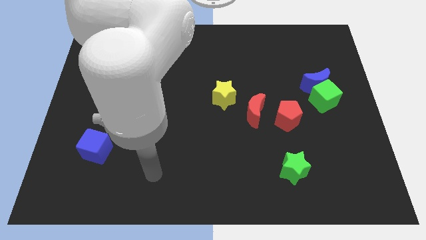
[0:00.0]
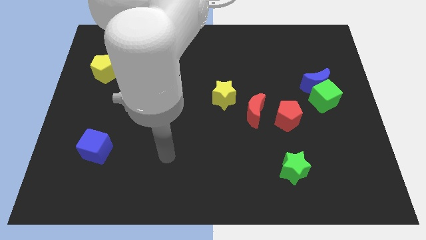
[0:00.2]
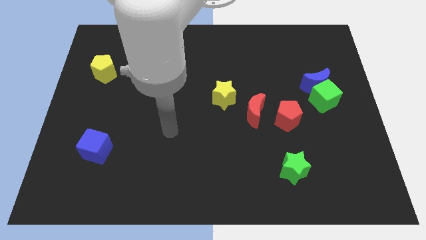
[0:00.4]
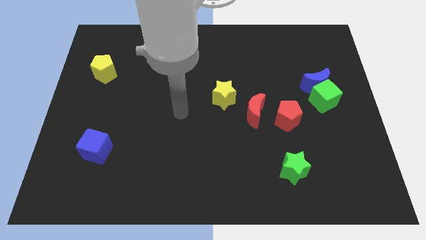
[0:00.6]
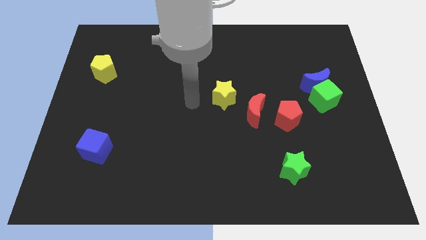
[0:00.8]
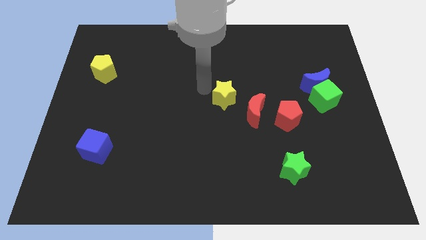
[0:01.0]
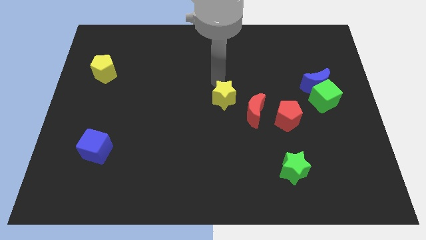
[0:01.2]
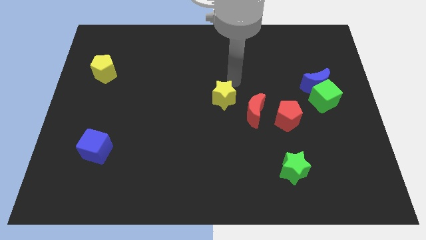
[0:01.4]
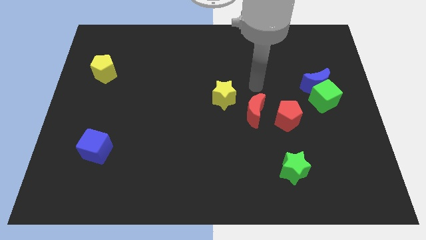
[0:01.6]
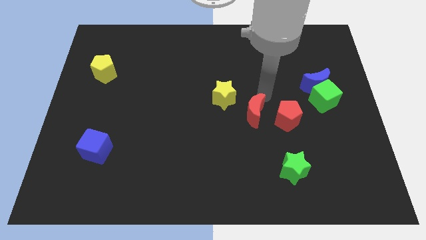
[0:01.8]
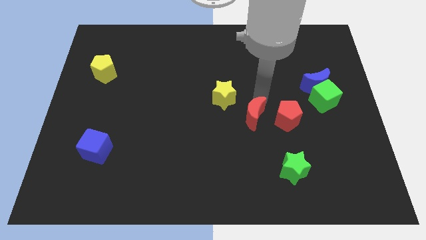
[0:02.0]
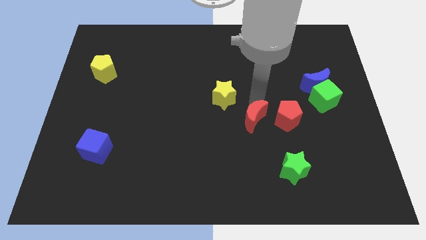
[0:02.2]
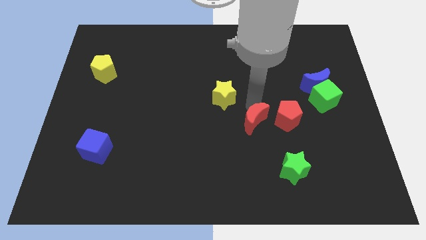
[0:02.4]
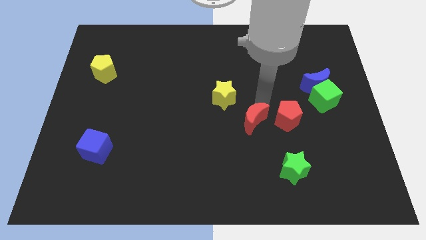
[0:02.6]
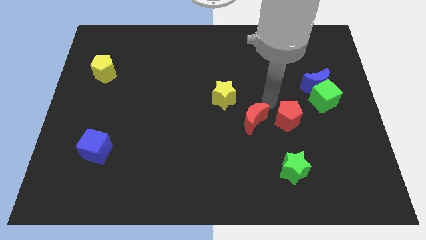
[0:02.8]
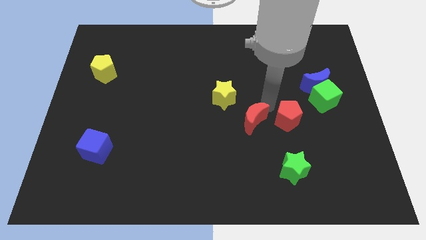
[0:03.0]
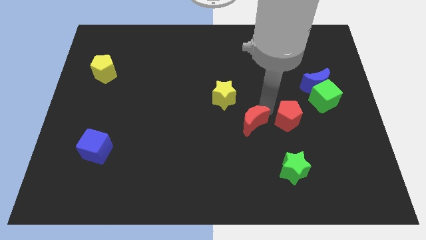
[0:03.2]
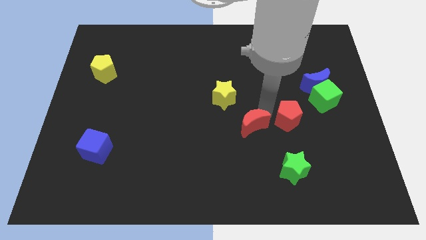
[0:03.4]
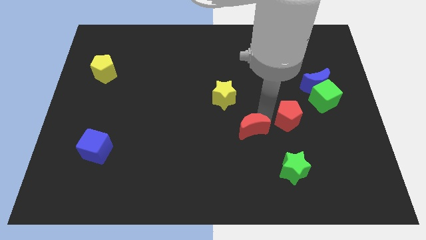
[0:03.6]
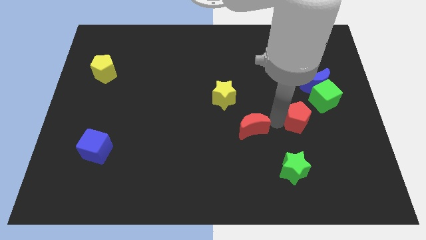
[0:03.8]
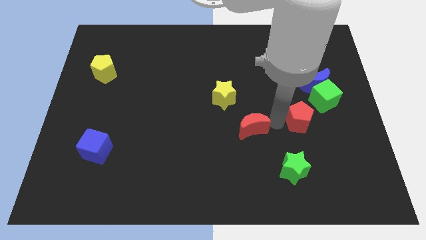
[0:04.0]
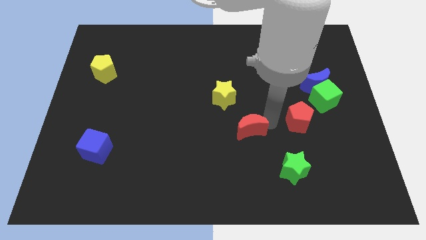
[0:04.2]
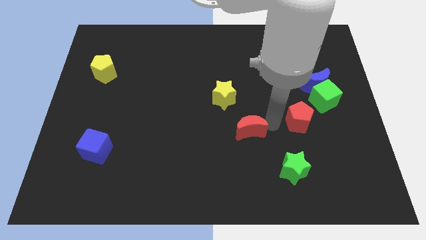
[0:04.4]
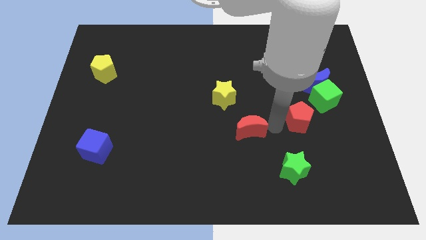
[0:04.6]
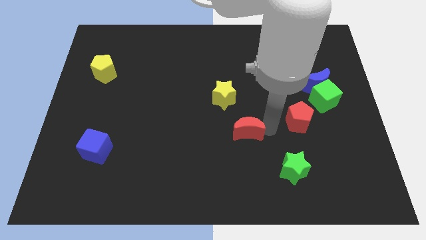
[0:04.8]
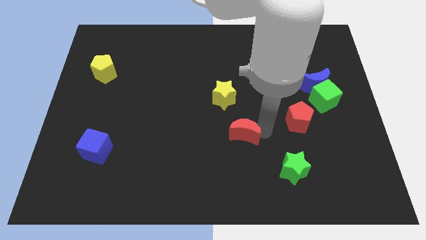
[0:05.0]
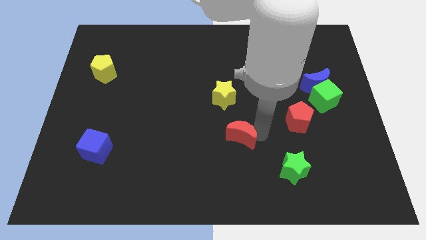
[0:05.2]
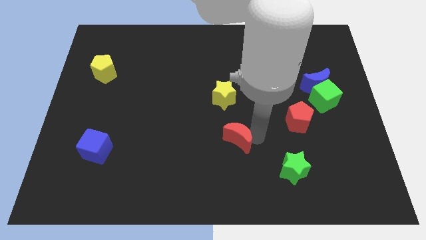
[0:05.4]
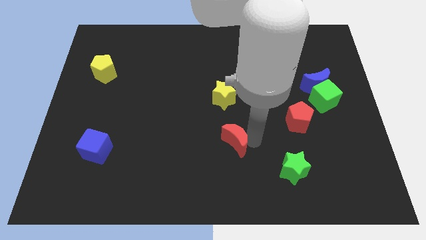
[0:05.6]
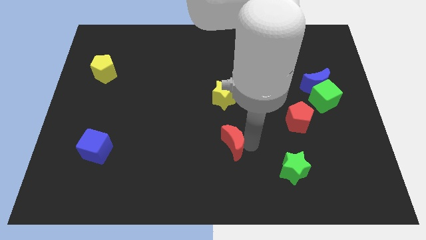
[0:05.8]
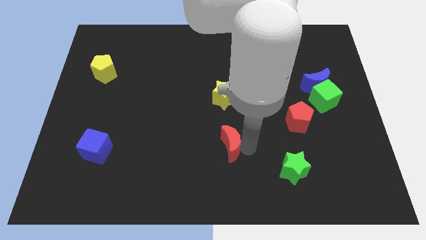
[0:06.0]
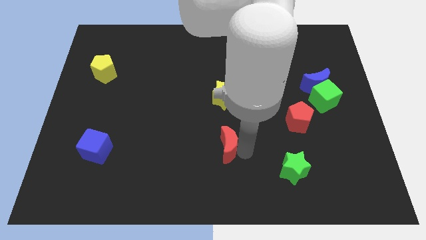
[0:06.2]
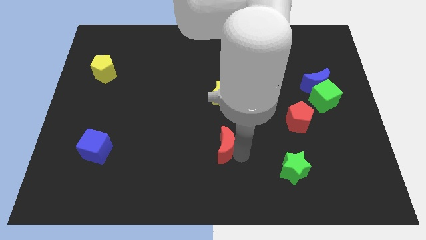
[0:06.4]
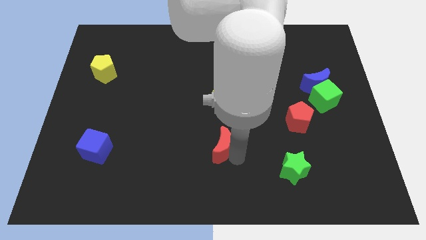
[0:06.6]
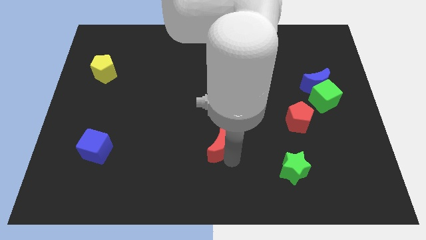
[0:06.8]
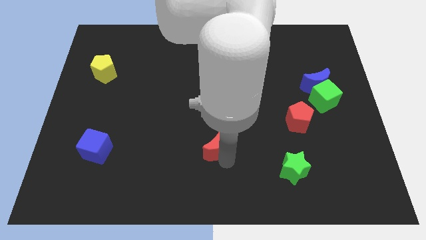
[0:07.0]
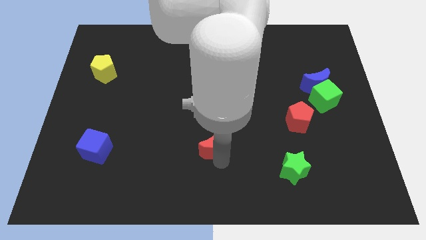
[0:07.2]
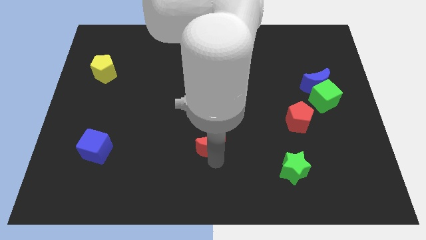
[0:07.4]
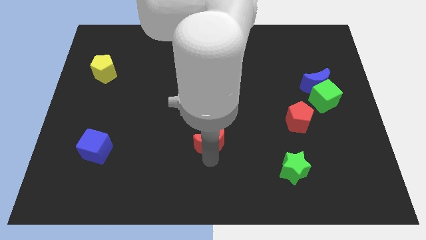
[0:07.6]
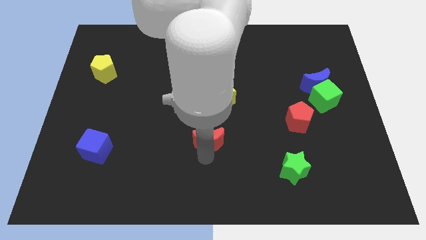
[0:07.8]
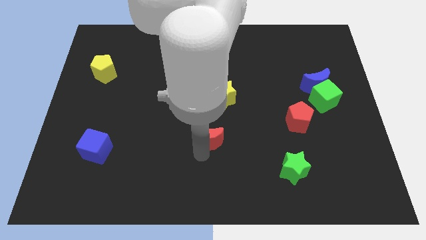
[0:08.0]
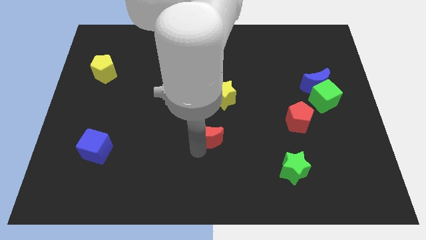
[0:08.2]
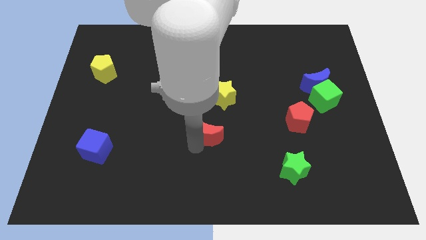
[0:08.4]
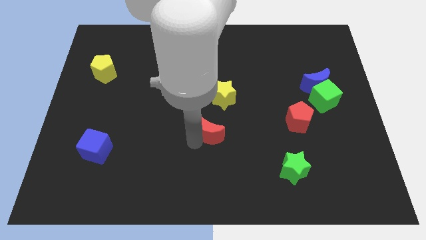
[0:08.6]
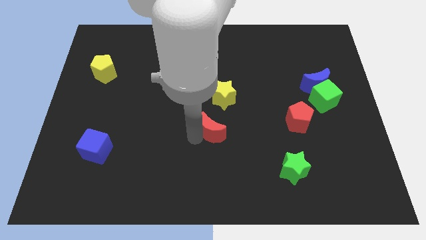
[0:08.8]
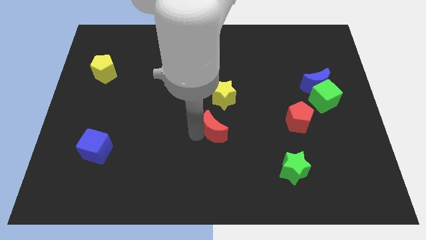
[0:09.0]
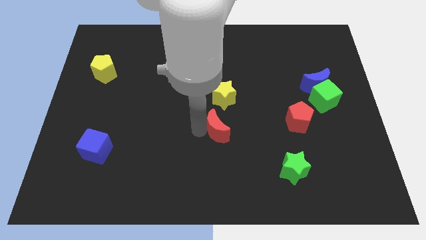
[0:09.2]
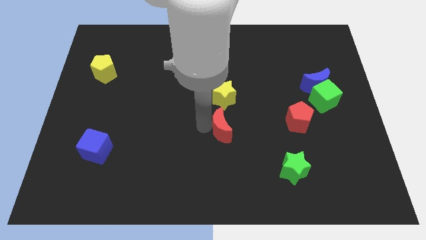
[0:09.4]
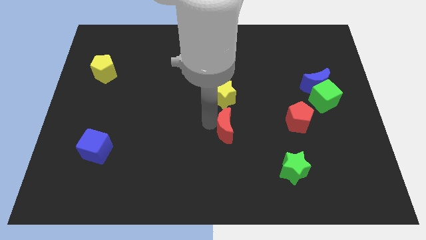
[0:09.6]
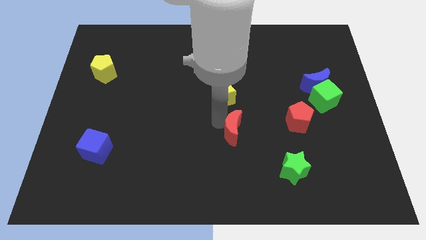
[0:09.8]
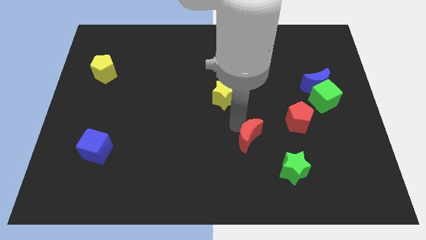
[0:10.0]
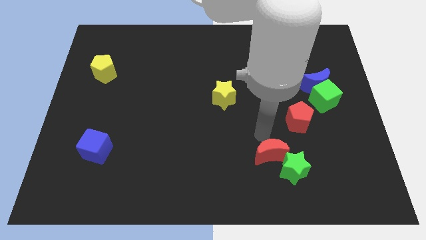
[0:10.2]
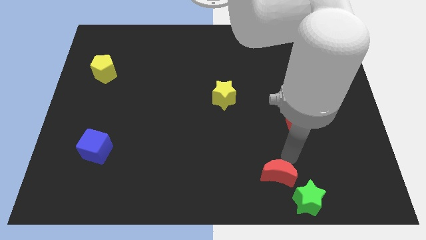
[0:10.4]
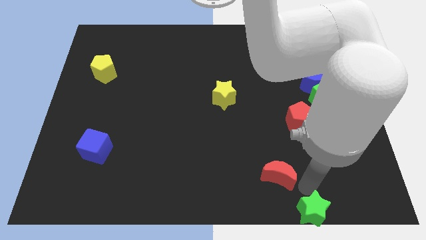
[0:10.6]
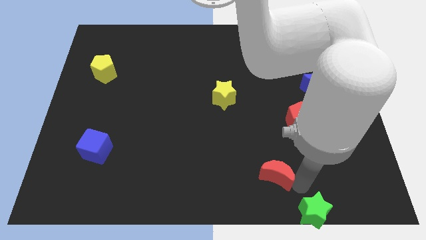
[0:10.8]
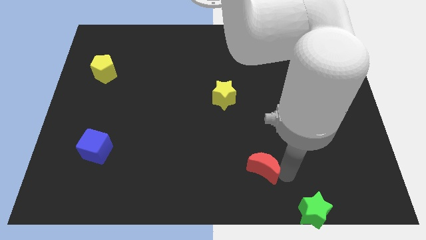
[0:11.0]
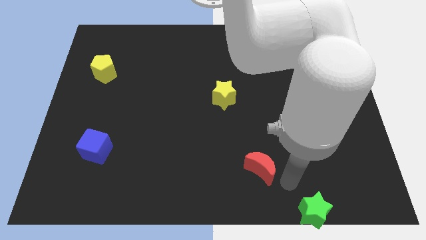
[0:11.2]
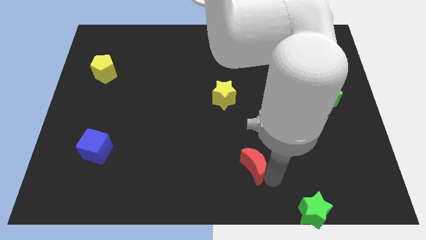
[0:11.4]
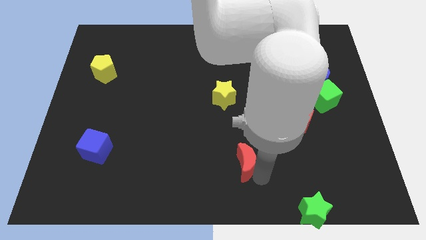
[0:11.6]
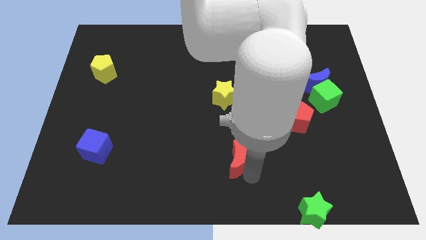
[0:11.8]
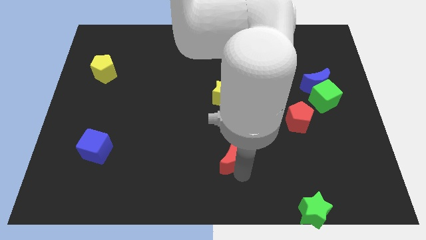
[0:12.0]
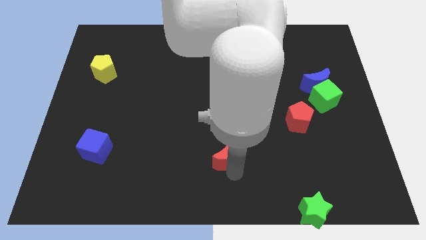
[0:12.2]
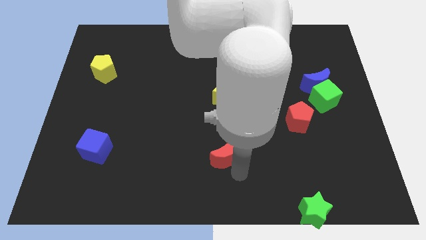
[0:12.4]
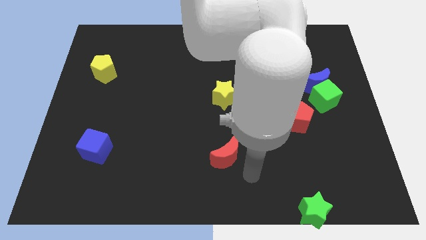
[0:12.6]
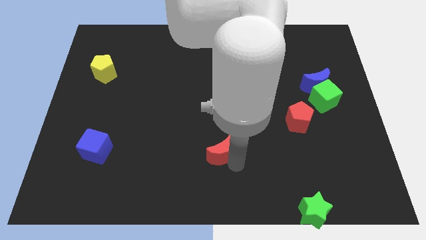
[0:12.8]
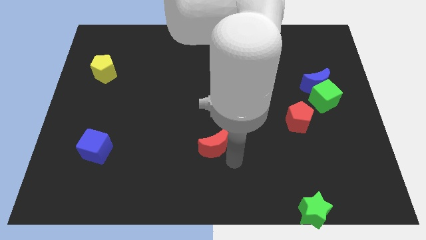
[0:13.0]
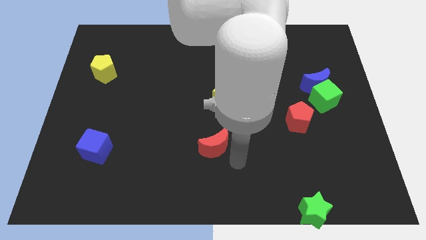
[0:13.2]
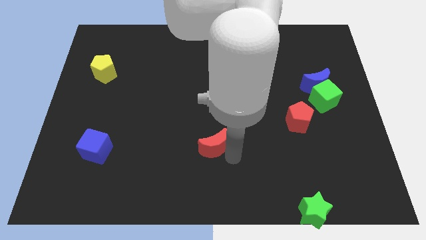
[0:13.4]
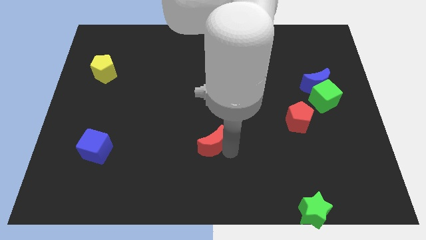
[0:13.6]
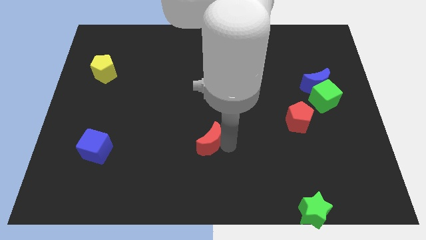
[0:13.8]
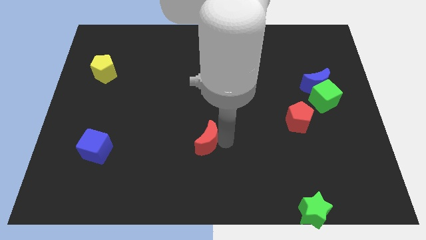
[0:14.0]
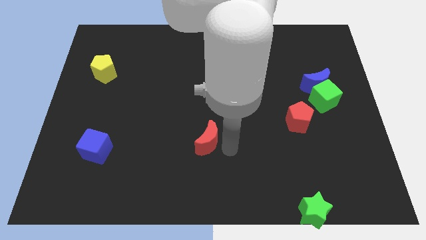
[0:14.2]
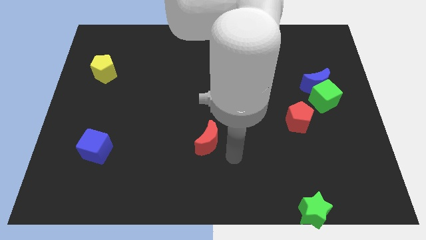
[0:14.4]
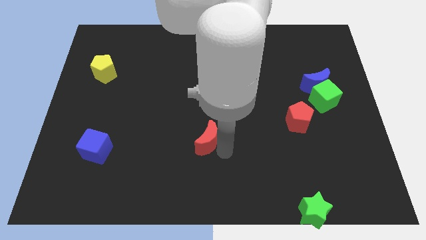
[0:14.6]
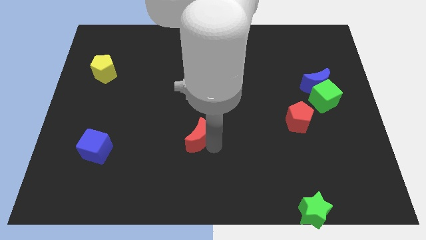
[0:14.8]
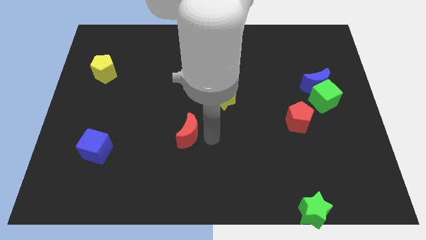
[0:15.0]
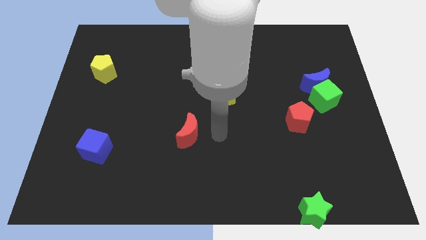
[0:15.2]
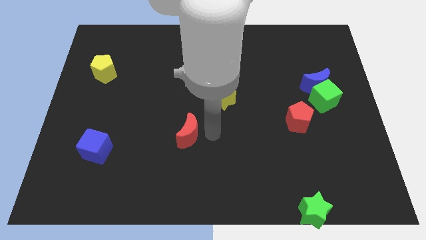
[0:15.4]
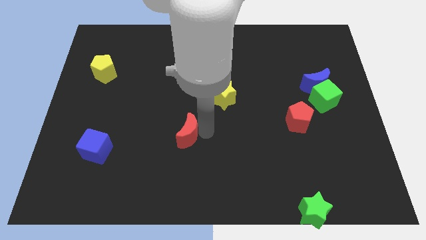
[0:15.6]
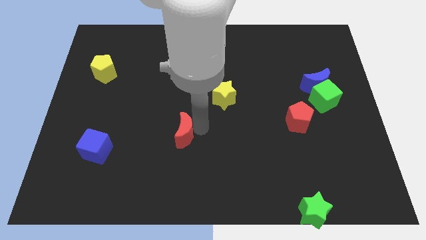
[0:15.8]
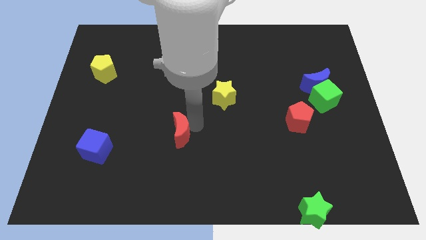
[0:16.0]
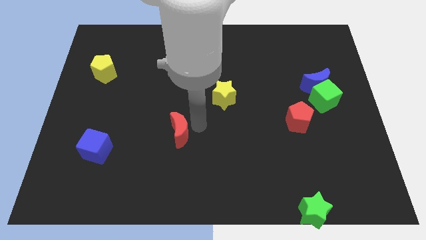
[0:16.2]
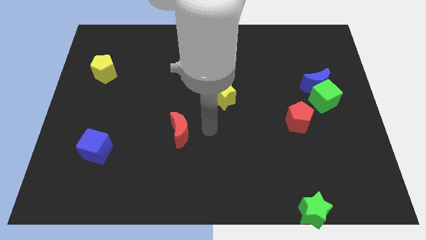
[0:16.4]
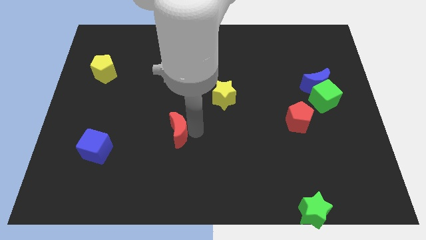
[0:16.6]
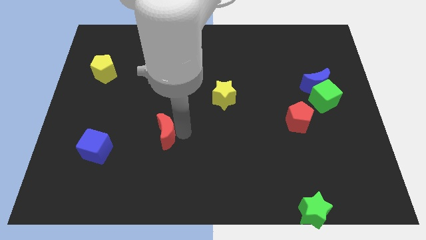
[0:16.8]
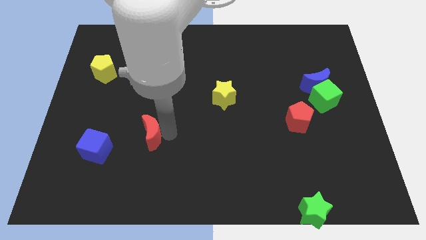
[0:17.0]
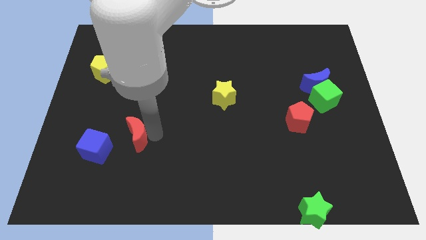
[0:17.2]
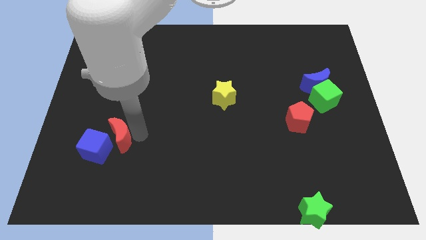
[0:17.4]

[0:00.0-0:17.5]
slide the red moon close to the blue cube
